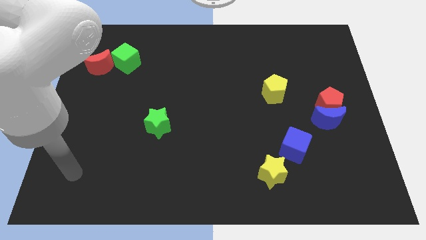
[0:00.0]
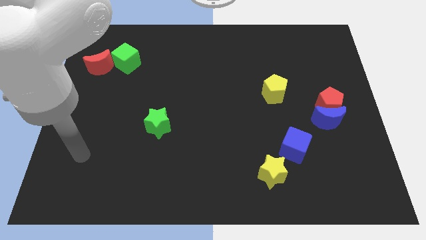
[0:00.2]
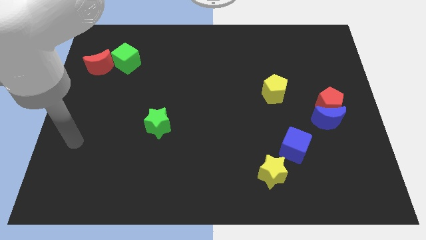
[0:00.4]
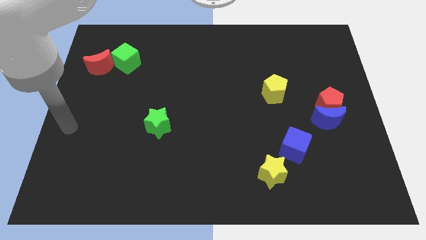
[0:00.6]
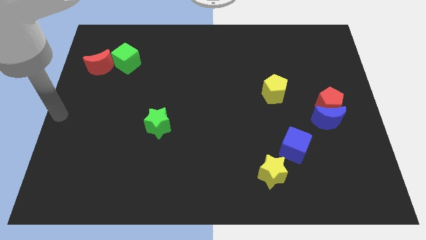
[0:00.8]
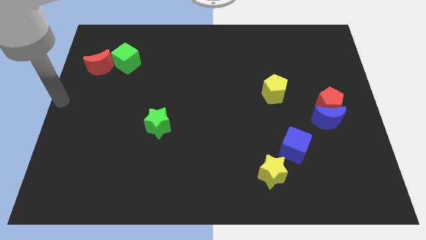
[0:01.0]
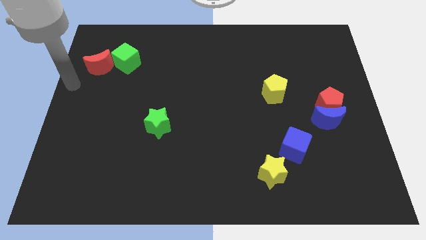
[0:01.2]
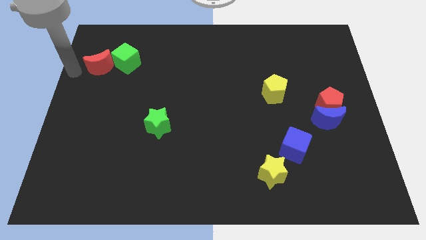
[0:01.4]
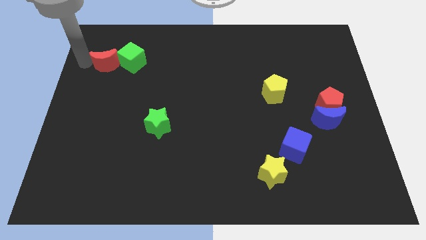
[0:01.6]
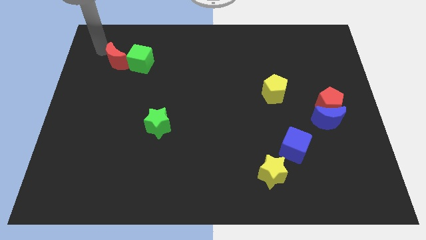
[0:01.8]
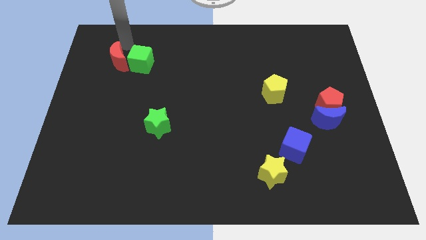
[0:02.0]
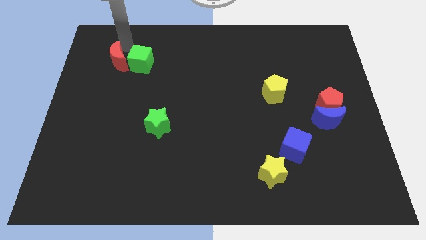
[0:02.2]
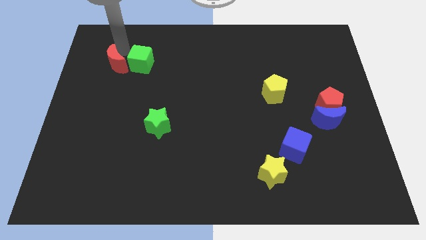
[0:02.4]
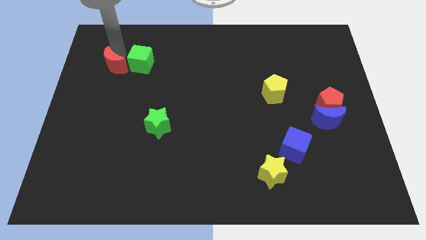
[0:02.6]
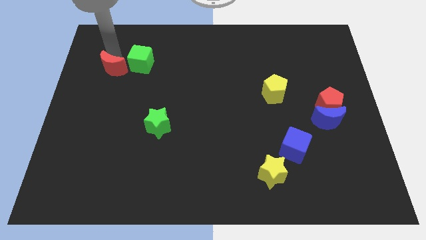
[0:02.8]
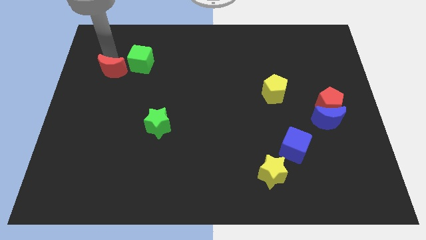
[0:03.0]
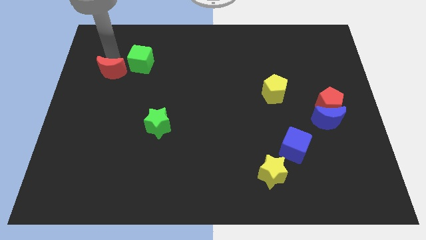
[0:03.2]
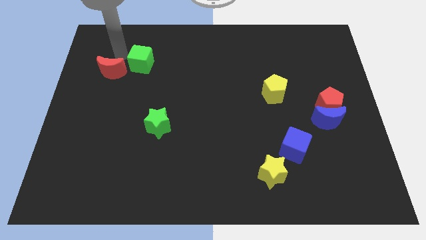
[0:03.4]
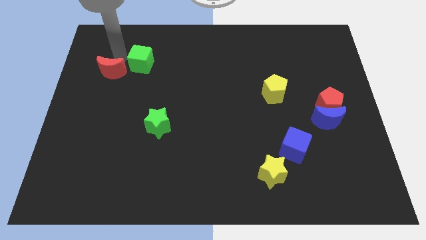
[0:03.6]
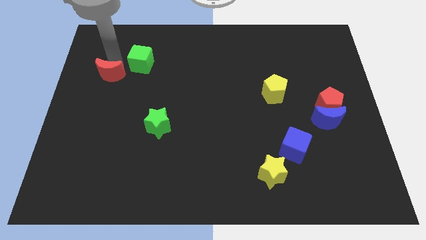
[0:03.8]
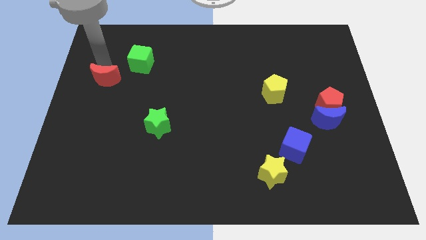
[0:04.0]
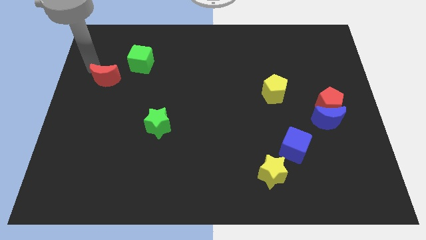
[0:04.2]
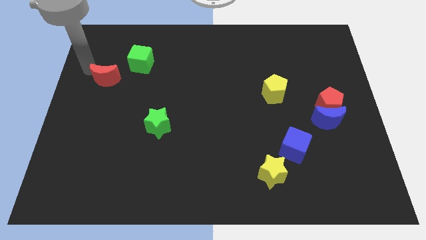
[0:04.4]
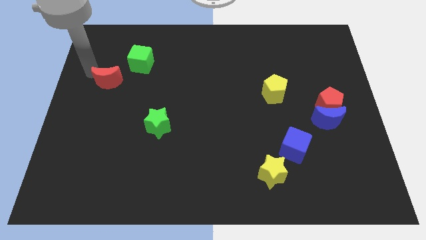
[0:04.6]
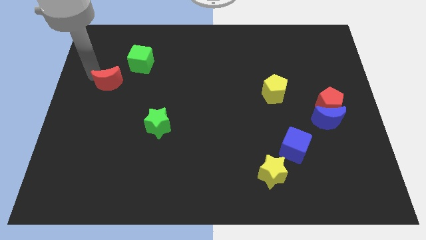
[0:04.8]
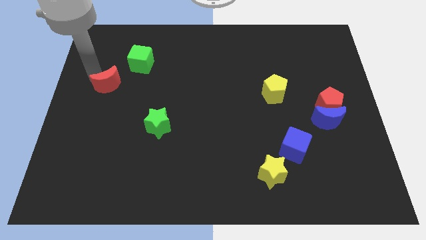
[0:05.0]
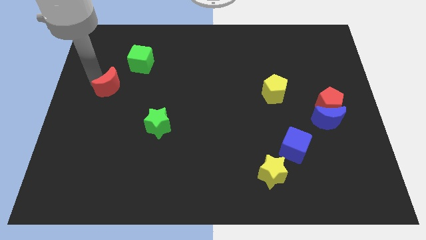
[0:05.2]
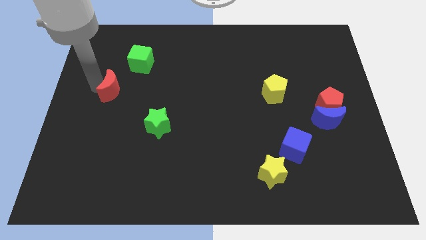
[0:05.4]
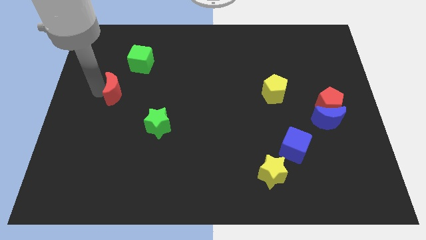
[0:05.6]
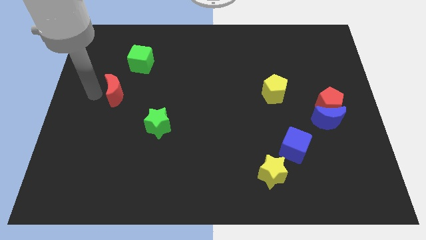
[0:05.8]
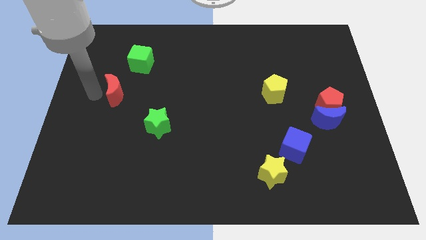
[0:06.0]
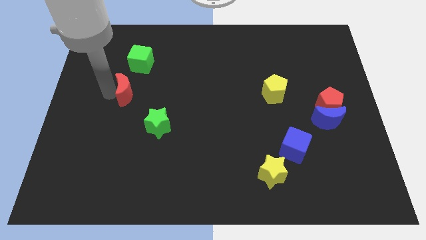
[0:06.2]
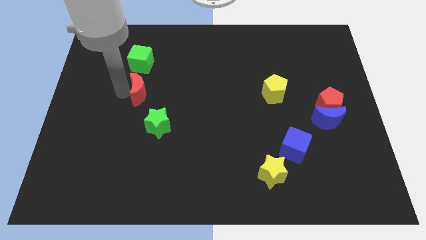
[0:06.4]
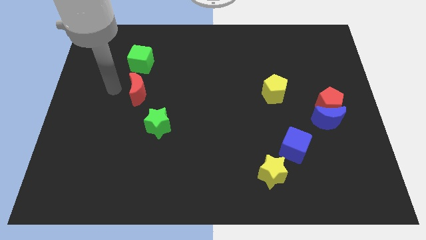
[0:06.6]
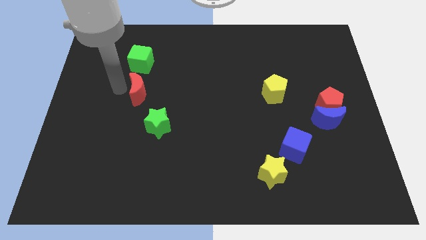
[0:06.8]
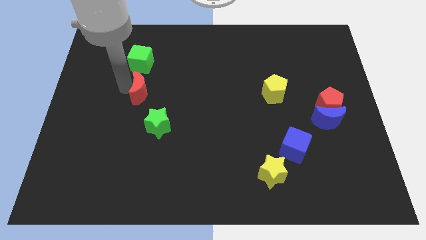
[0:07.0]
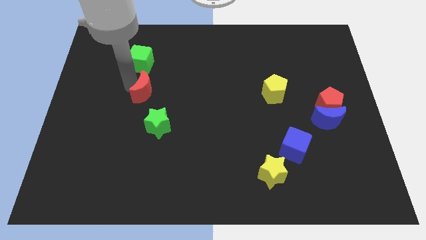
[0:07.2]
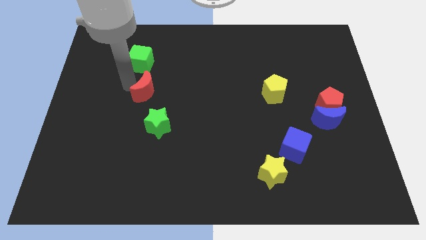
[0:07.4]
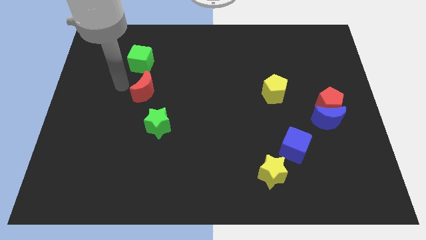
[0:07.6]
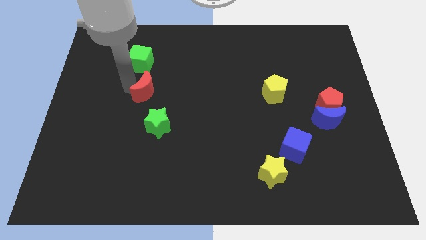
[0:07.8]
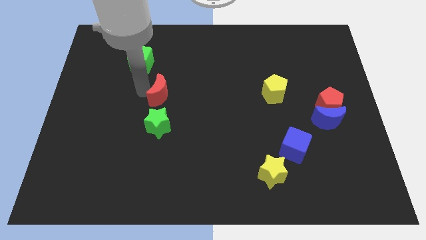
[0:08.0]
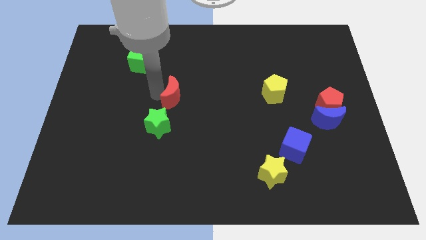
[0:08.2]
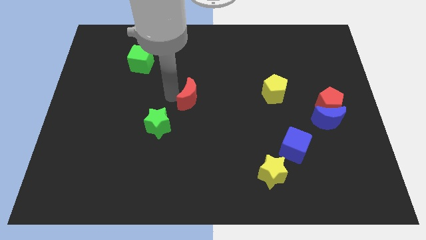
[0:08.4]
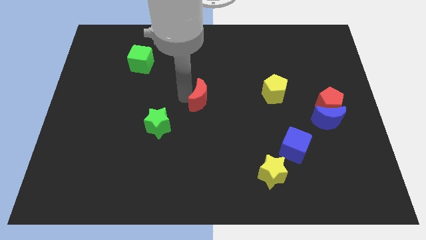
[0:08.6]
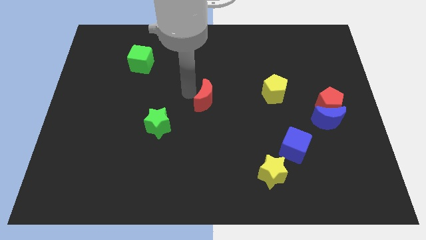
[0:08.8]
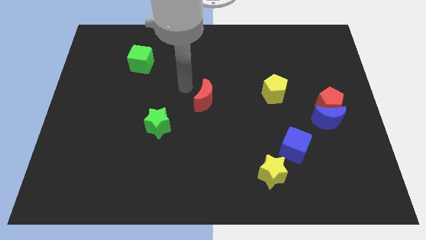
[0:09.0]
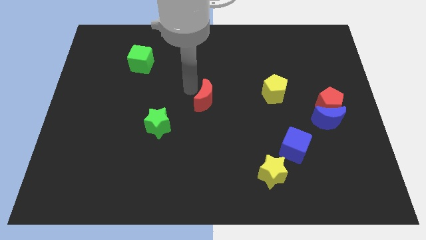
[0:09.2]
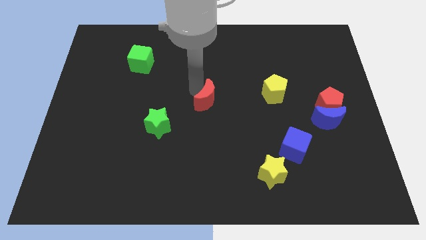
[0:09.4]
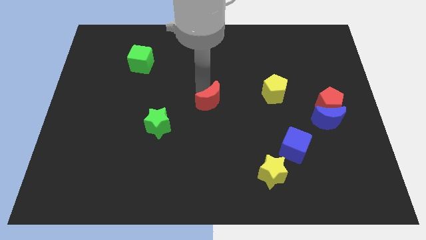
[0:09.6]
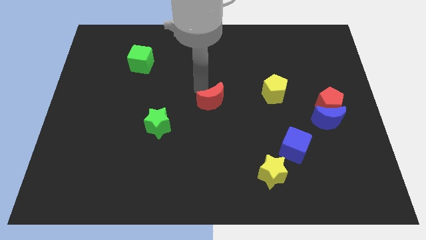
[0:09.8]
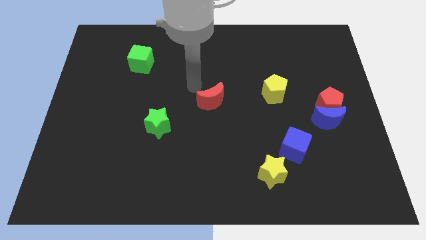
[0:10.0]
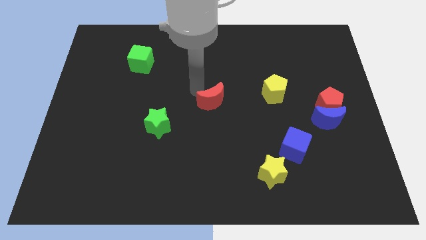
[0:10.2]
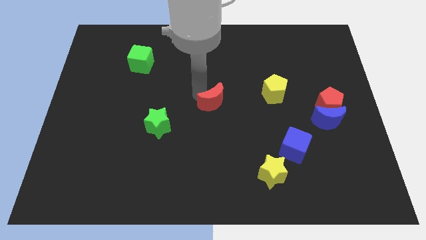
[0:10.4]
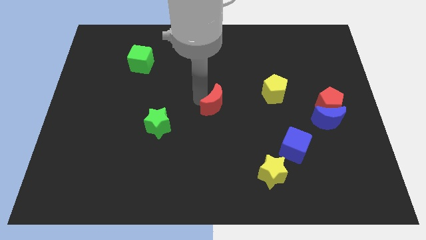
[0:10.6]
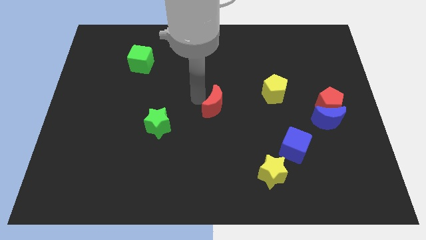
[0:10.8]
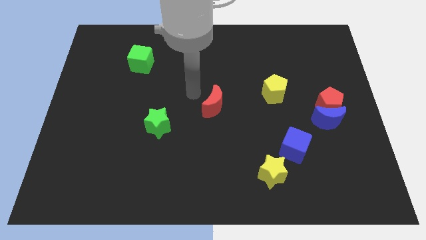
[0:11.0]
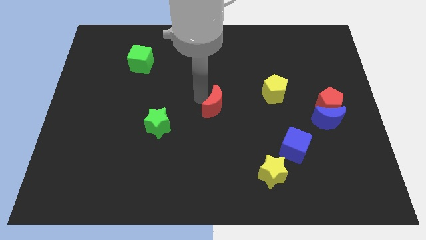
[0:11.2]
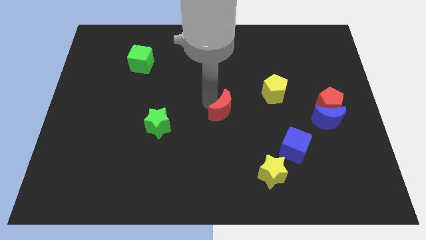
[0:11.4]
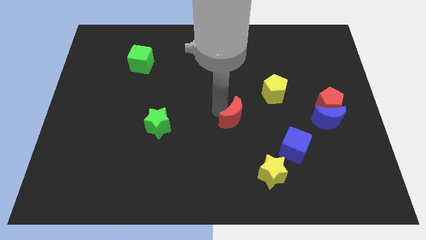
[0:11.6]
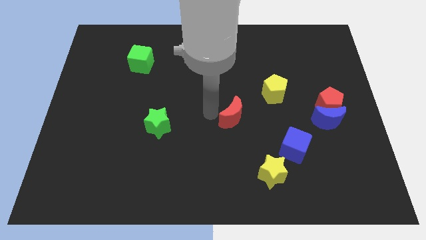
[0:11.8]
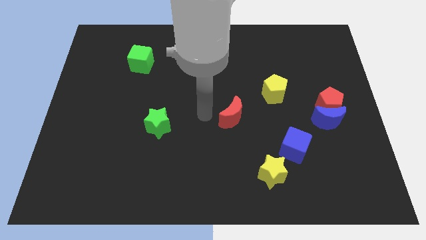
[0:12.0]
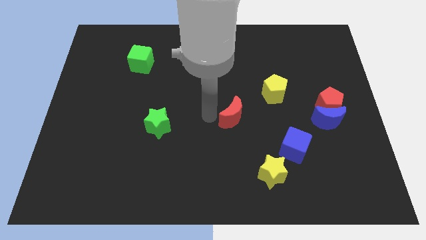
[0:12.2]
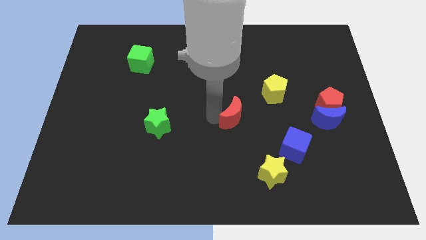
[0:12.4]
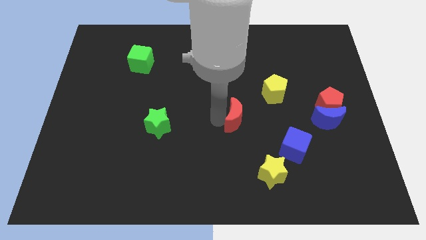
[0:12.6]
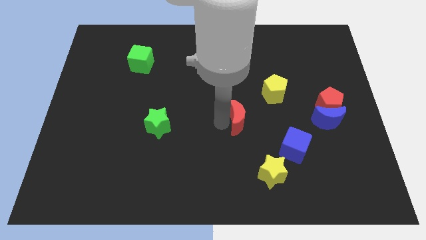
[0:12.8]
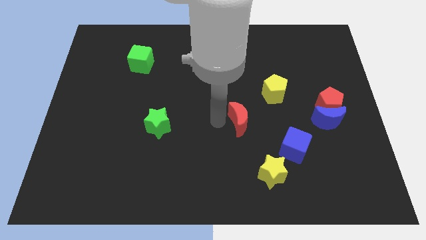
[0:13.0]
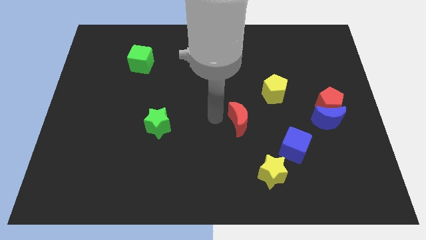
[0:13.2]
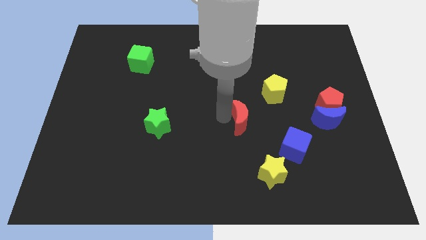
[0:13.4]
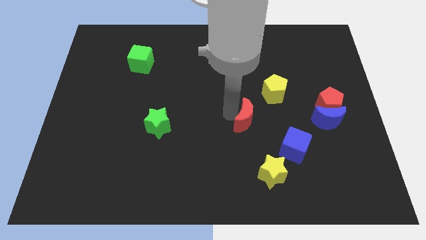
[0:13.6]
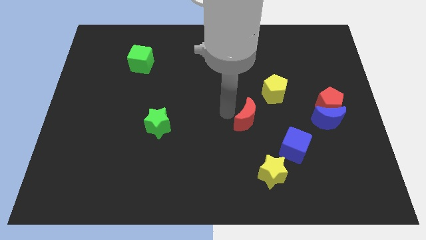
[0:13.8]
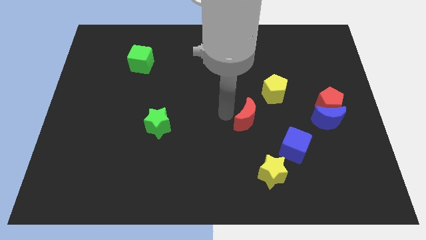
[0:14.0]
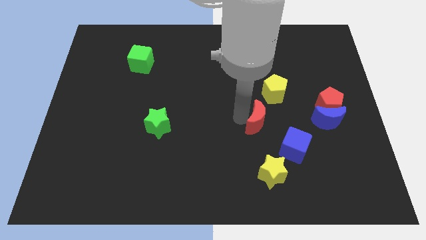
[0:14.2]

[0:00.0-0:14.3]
move the red moon to the bottom of the yellow pentagon
